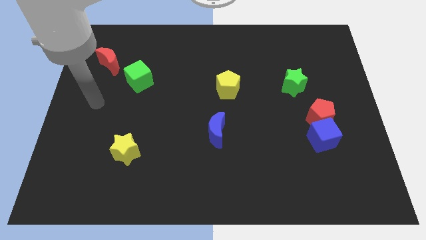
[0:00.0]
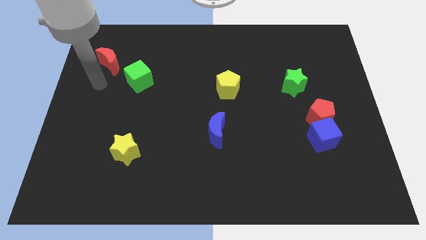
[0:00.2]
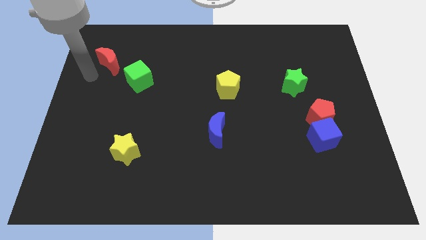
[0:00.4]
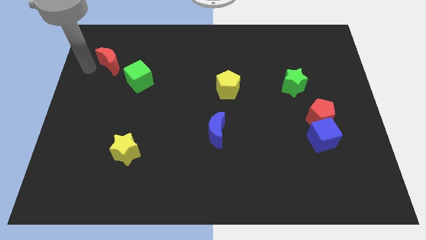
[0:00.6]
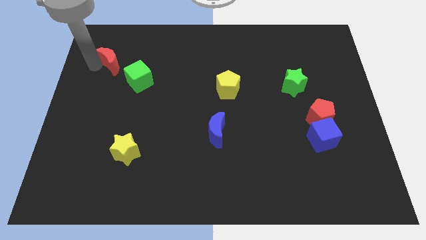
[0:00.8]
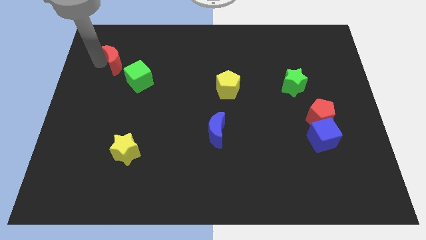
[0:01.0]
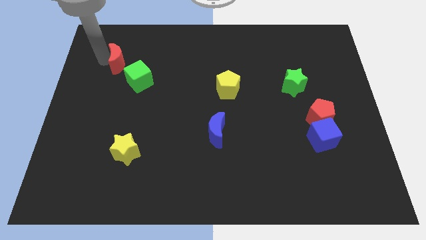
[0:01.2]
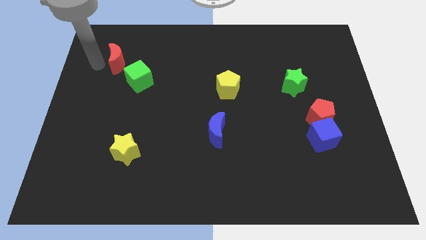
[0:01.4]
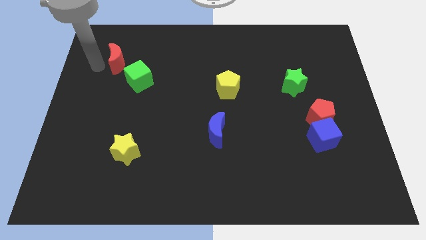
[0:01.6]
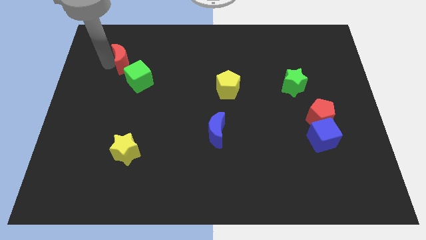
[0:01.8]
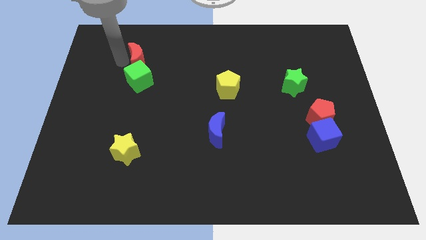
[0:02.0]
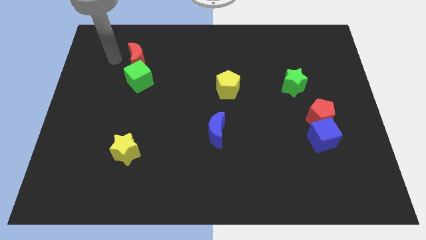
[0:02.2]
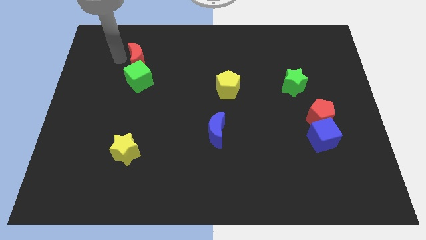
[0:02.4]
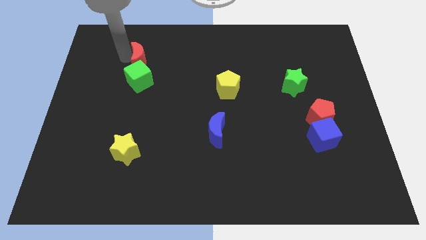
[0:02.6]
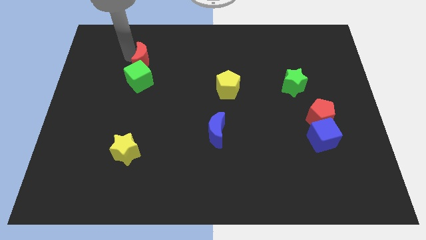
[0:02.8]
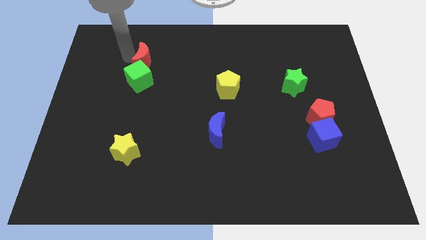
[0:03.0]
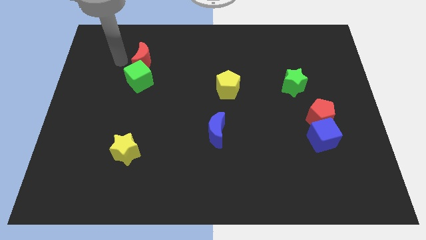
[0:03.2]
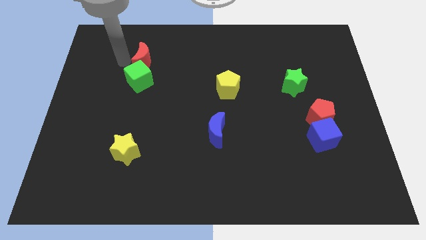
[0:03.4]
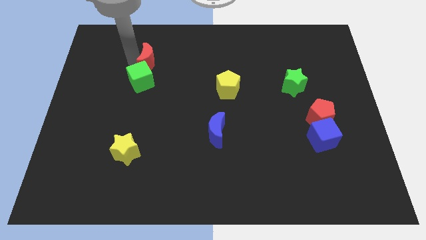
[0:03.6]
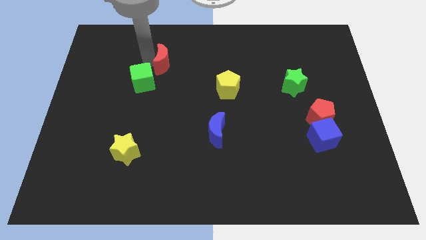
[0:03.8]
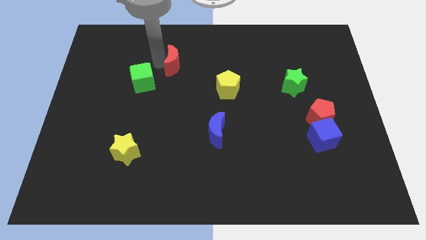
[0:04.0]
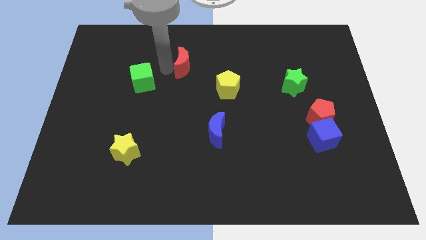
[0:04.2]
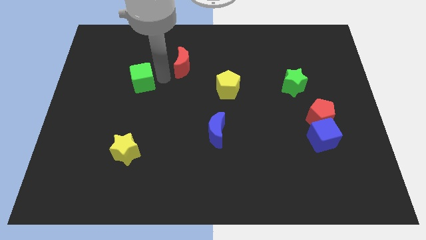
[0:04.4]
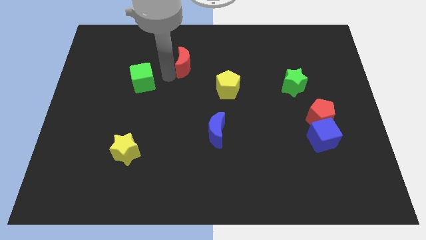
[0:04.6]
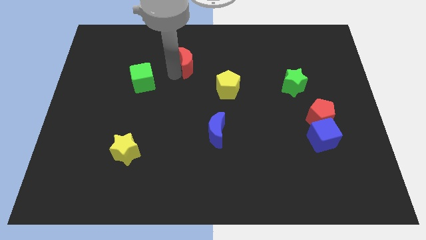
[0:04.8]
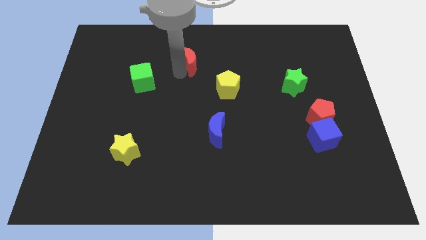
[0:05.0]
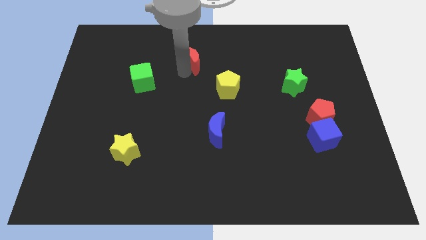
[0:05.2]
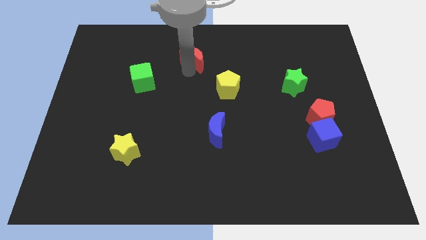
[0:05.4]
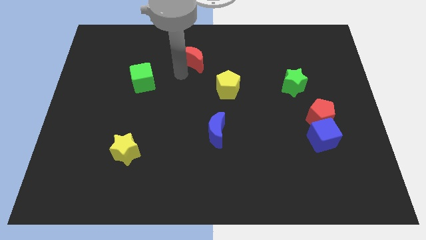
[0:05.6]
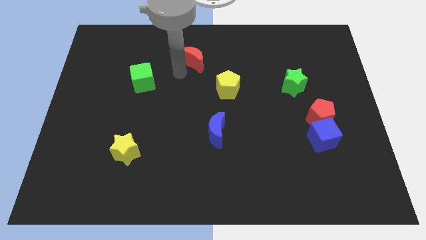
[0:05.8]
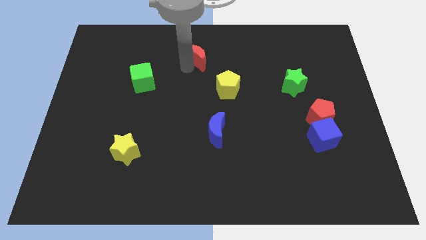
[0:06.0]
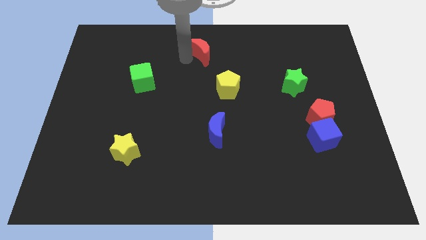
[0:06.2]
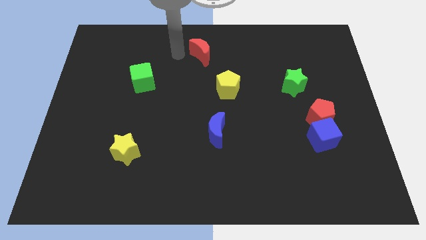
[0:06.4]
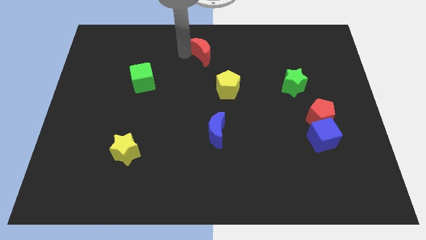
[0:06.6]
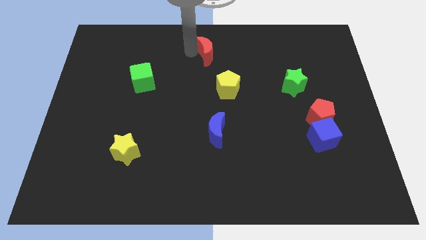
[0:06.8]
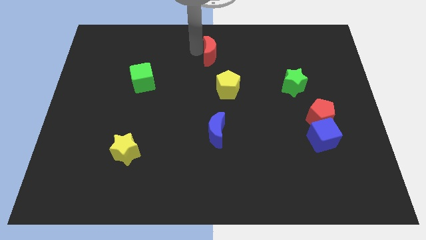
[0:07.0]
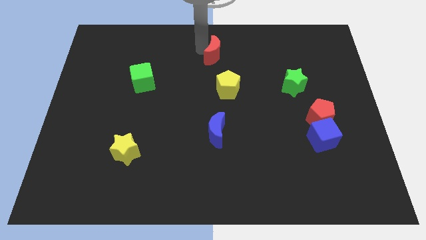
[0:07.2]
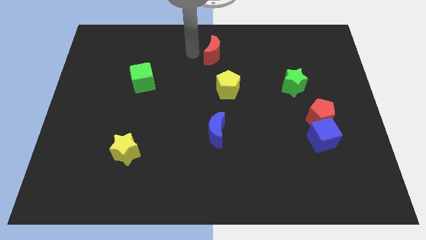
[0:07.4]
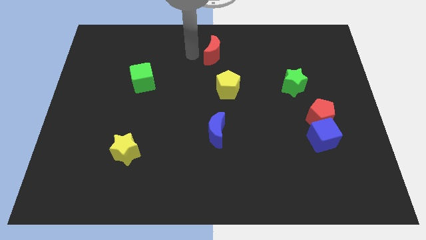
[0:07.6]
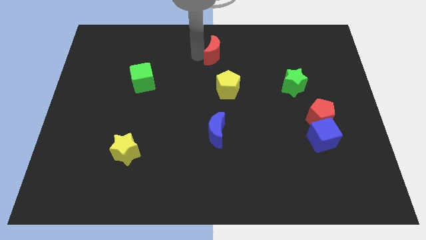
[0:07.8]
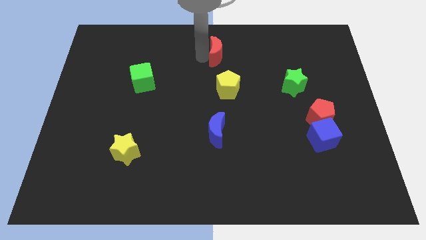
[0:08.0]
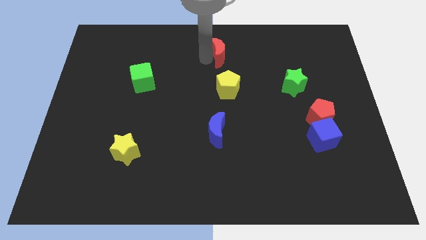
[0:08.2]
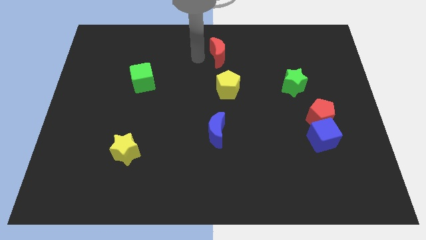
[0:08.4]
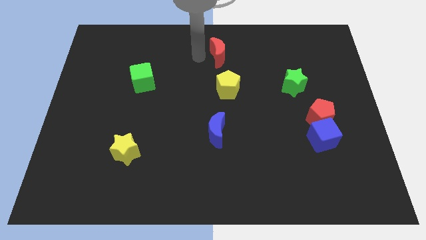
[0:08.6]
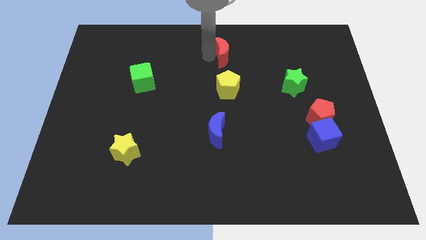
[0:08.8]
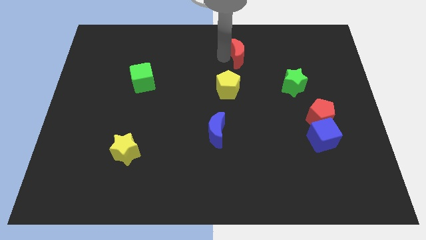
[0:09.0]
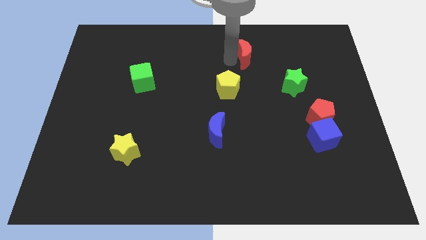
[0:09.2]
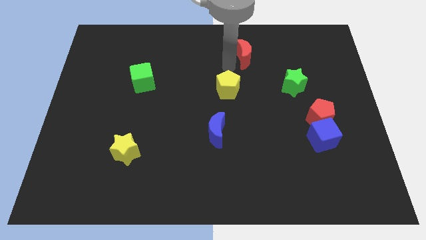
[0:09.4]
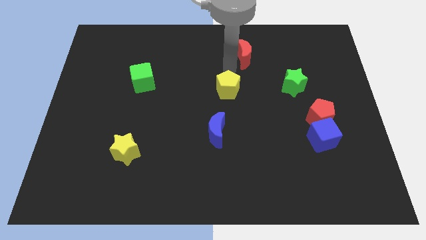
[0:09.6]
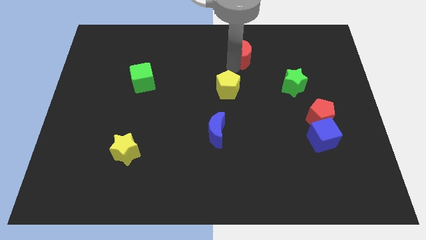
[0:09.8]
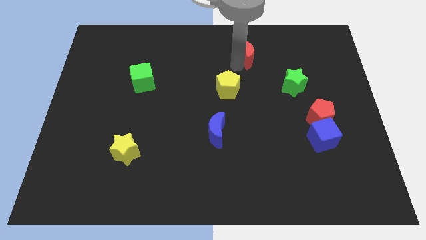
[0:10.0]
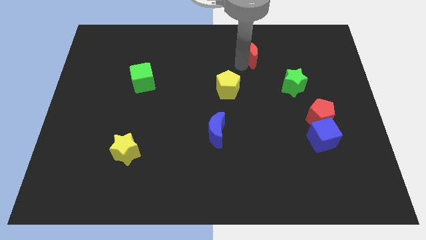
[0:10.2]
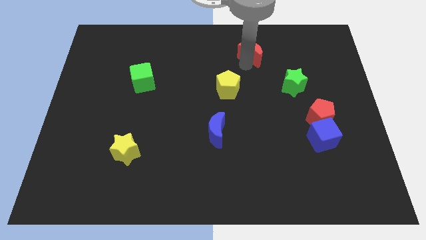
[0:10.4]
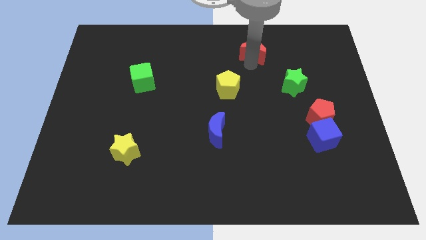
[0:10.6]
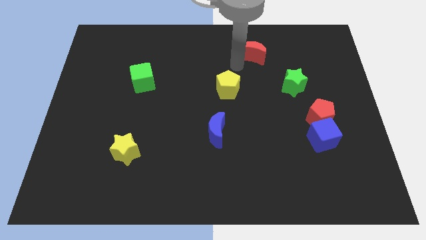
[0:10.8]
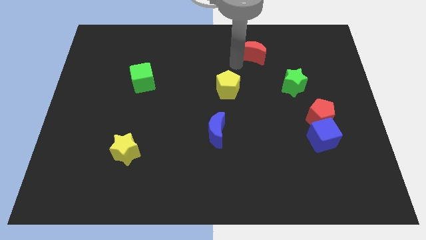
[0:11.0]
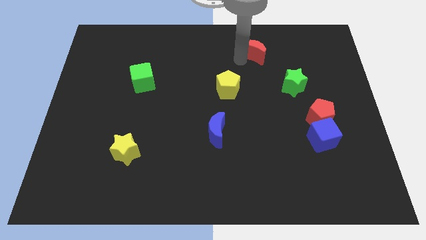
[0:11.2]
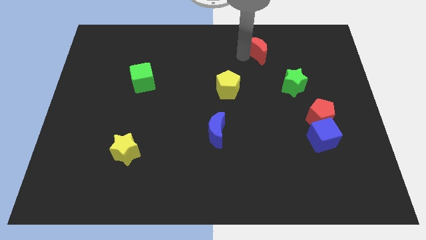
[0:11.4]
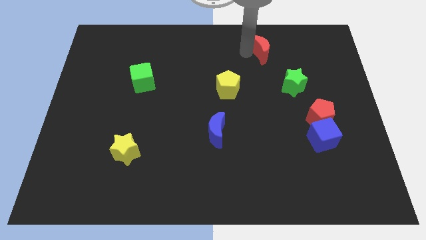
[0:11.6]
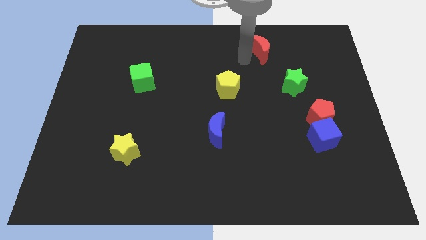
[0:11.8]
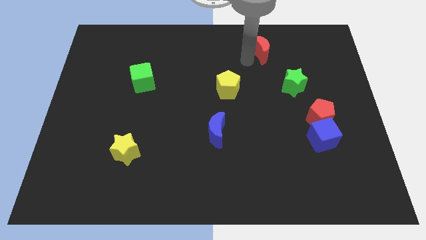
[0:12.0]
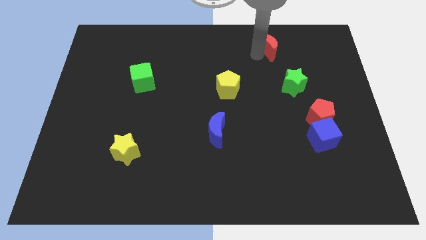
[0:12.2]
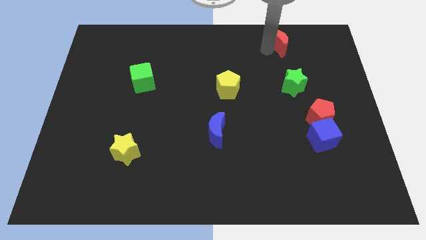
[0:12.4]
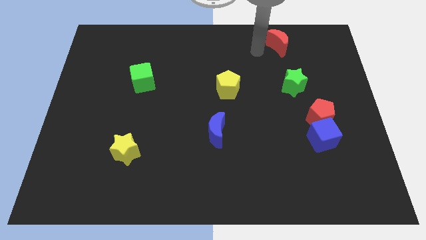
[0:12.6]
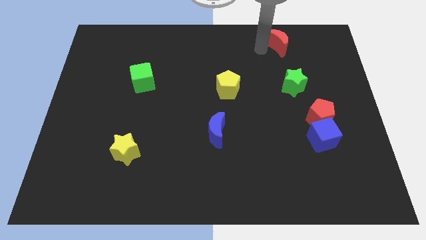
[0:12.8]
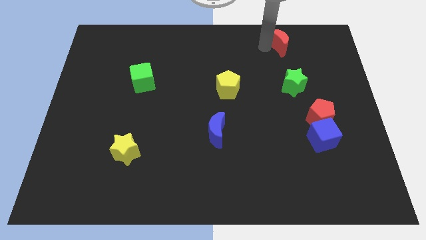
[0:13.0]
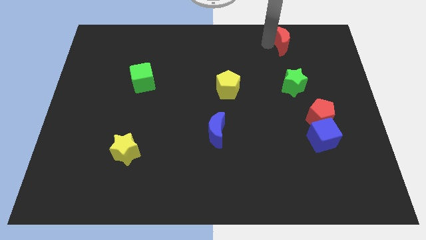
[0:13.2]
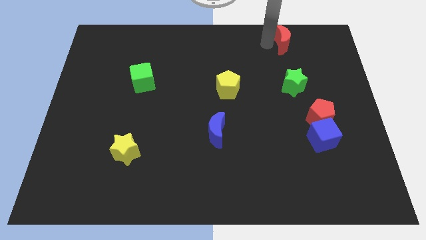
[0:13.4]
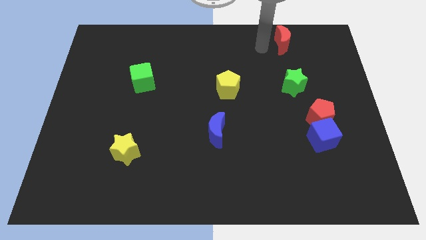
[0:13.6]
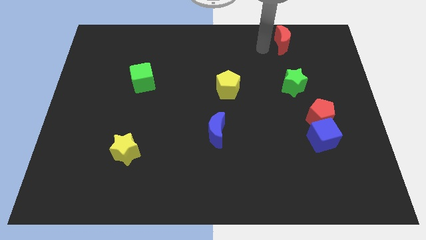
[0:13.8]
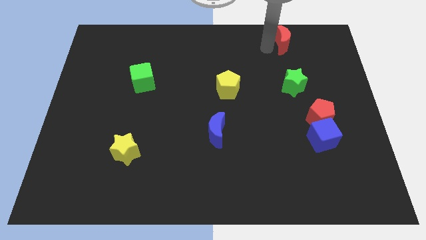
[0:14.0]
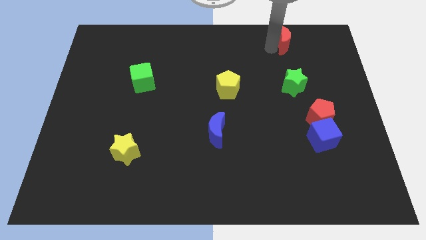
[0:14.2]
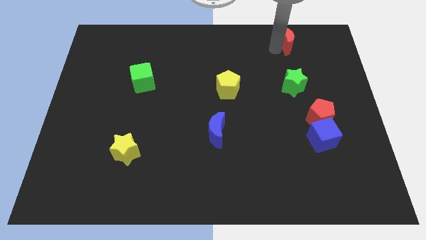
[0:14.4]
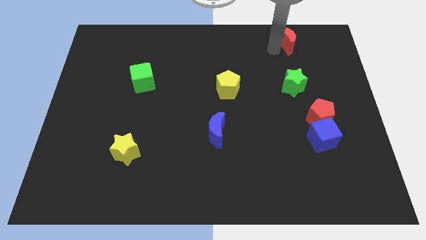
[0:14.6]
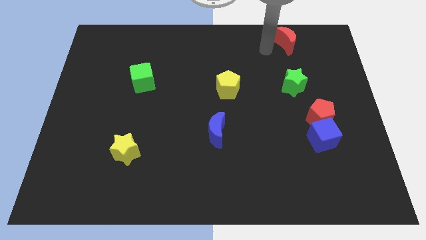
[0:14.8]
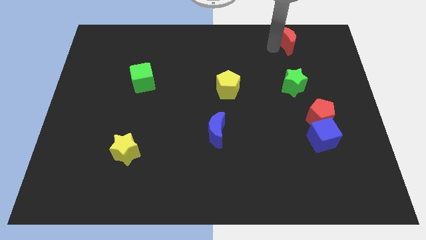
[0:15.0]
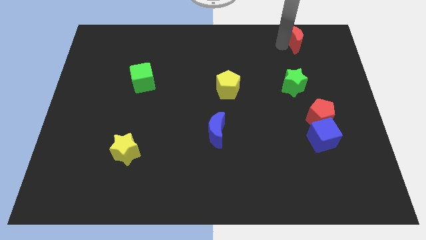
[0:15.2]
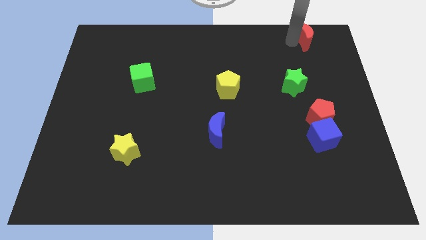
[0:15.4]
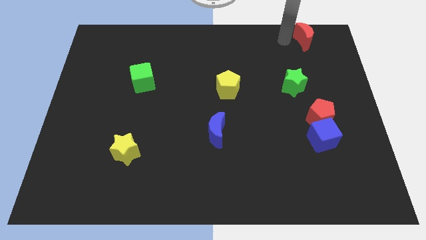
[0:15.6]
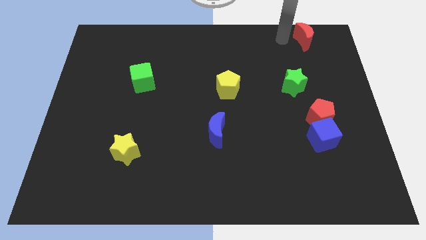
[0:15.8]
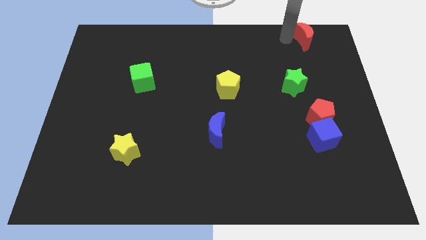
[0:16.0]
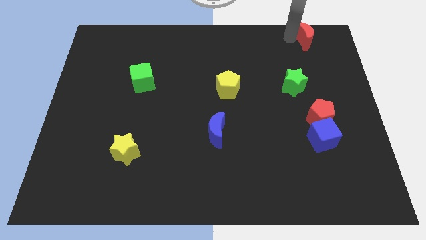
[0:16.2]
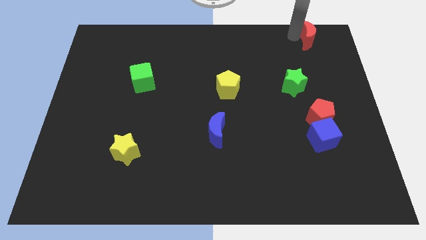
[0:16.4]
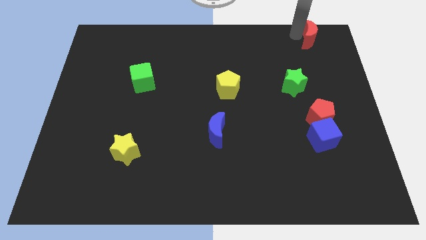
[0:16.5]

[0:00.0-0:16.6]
put the red moon to the upper right corner
